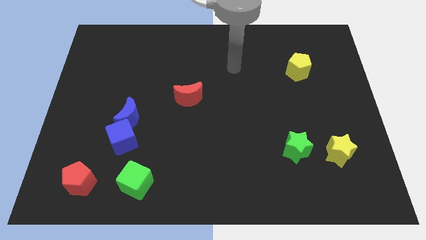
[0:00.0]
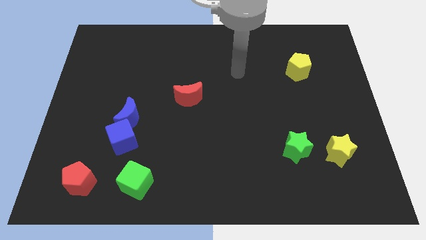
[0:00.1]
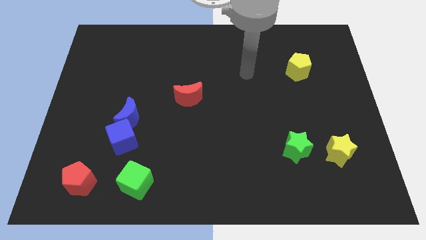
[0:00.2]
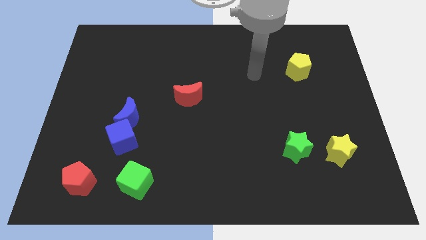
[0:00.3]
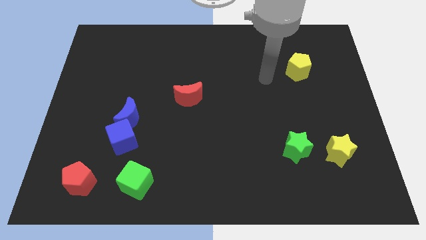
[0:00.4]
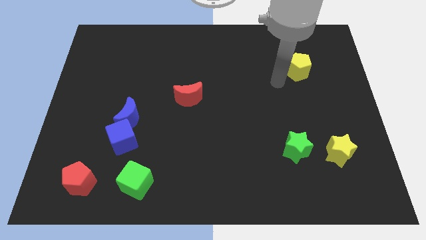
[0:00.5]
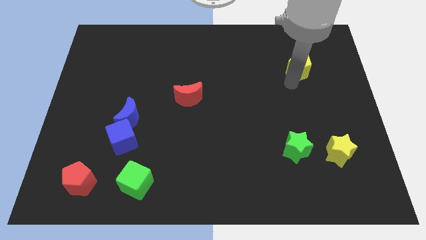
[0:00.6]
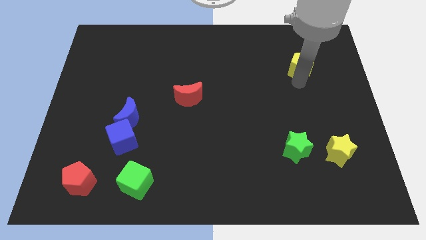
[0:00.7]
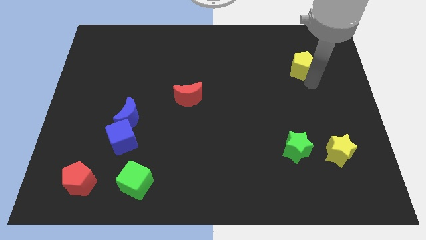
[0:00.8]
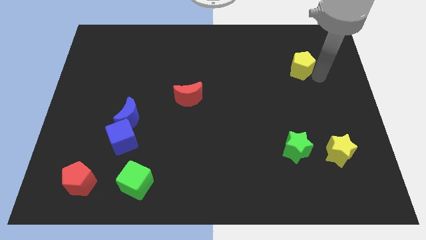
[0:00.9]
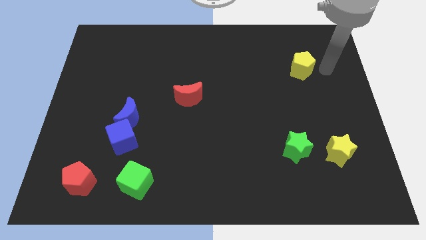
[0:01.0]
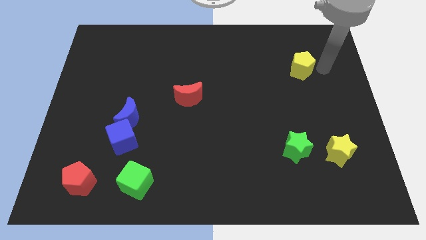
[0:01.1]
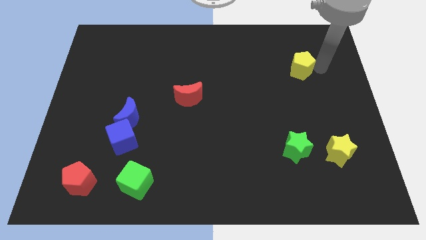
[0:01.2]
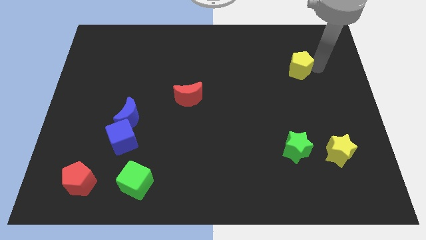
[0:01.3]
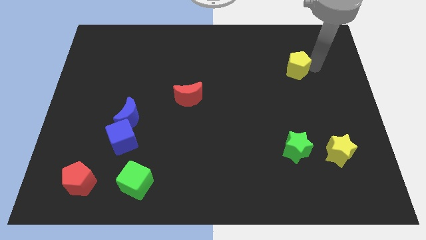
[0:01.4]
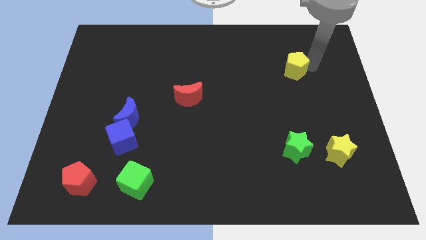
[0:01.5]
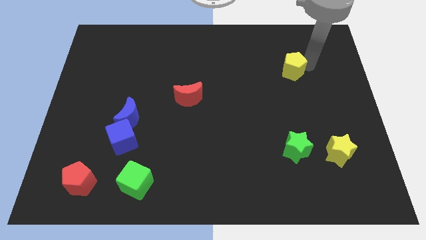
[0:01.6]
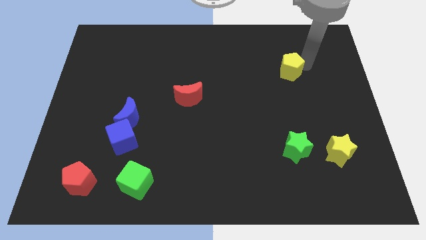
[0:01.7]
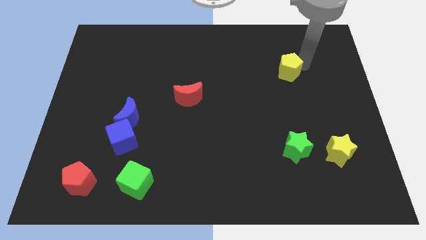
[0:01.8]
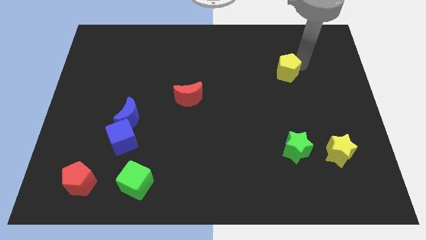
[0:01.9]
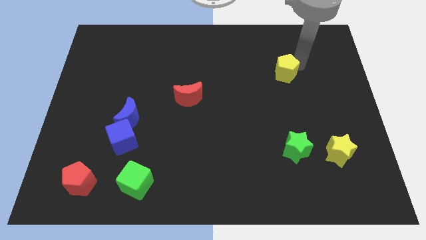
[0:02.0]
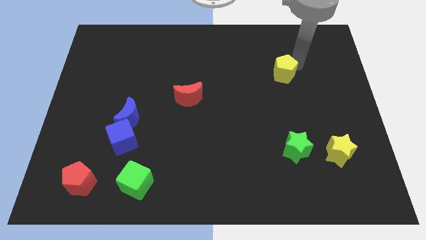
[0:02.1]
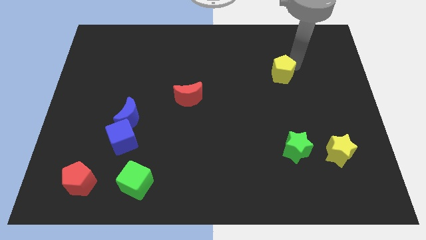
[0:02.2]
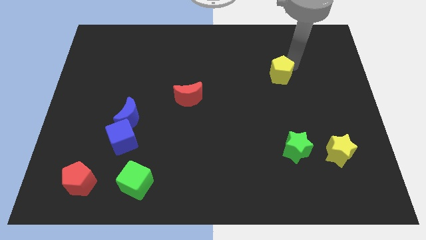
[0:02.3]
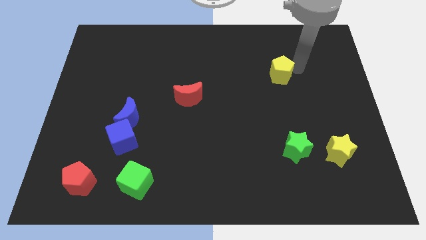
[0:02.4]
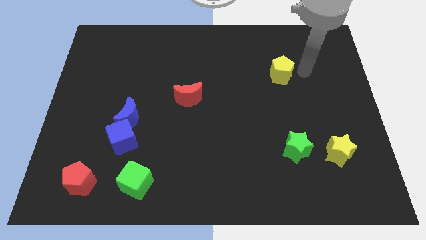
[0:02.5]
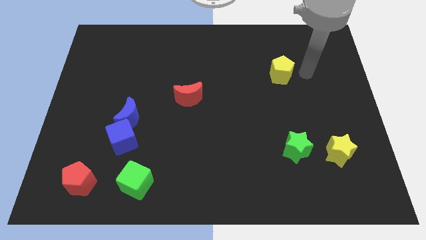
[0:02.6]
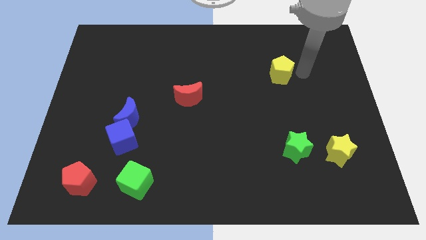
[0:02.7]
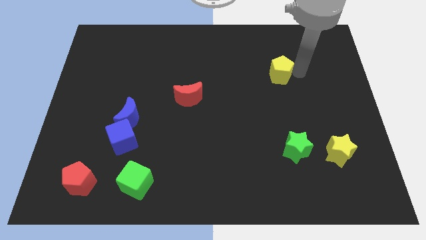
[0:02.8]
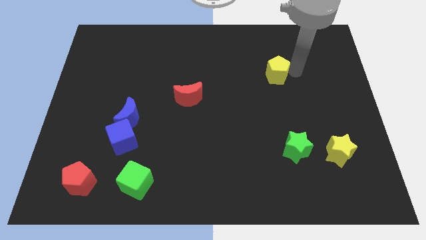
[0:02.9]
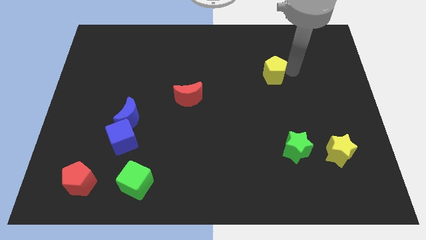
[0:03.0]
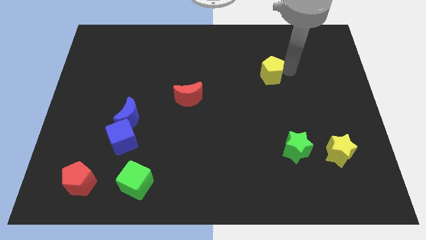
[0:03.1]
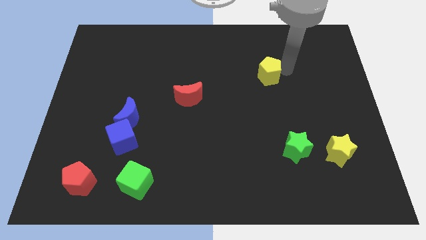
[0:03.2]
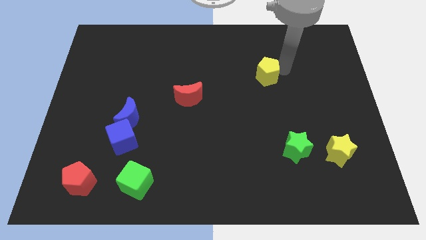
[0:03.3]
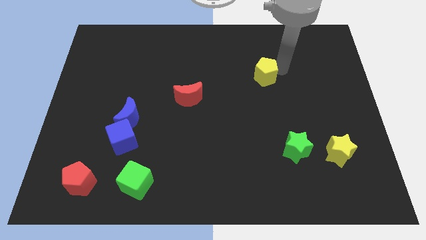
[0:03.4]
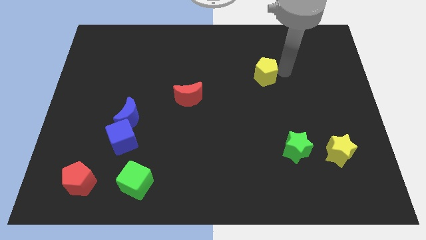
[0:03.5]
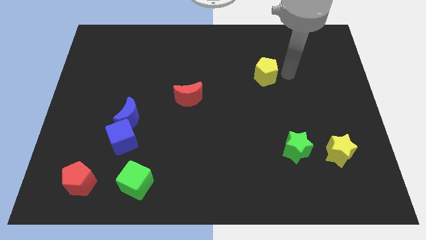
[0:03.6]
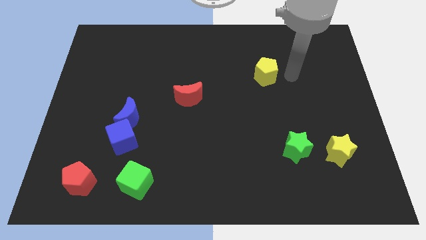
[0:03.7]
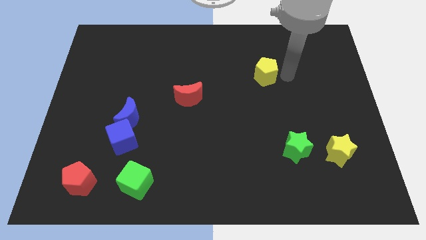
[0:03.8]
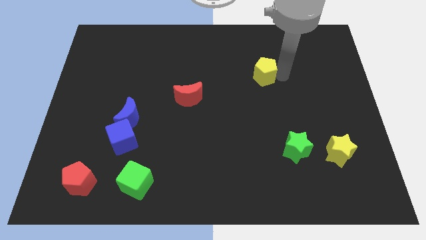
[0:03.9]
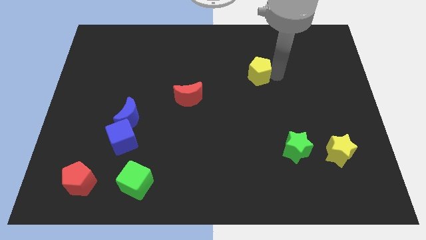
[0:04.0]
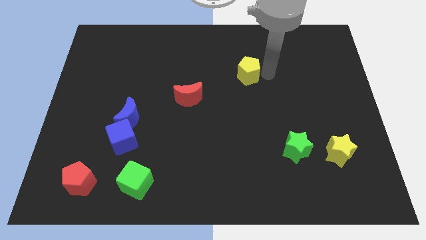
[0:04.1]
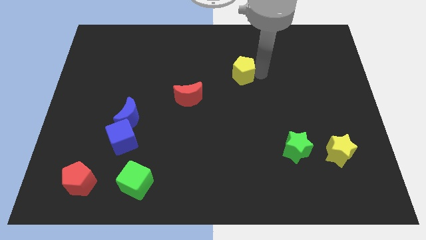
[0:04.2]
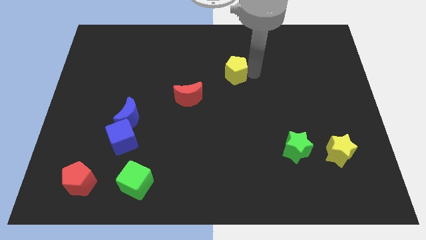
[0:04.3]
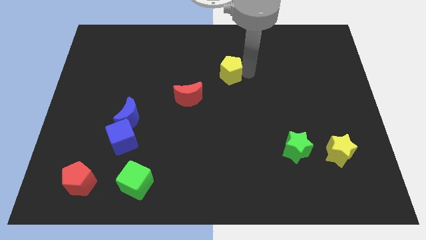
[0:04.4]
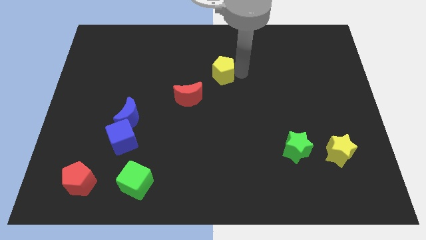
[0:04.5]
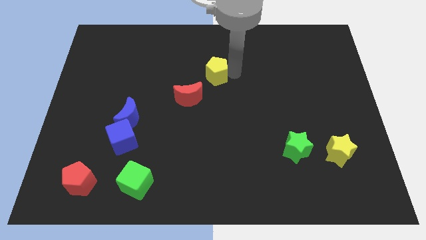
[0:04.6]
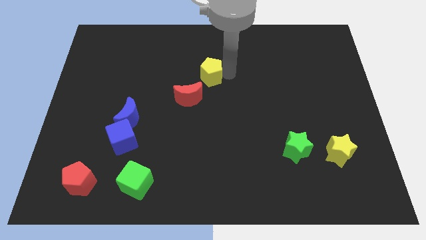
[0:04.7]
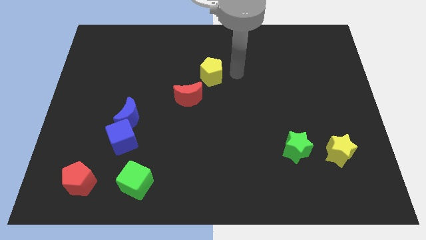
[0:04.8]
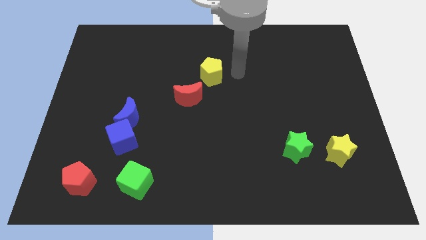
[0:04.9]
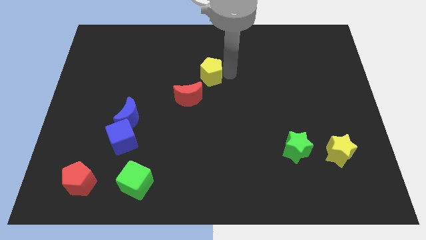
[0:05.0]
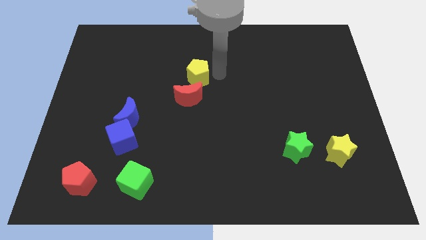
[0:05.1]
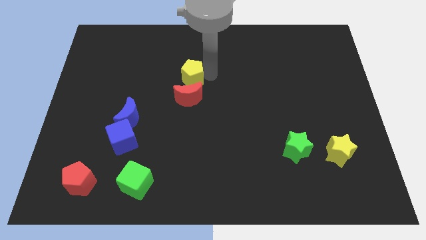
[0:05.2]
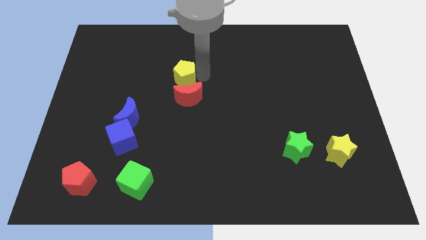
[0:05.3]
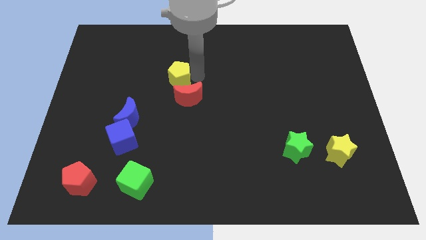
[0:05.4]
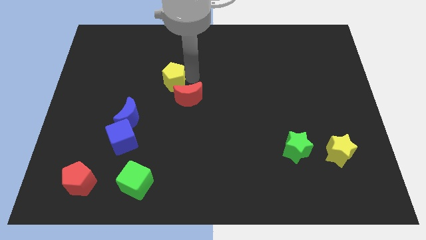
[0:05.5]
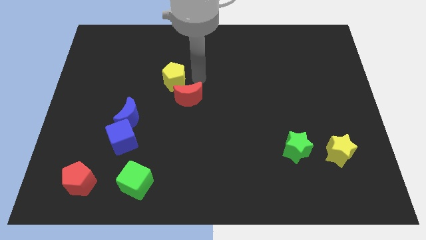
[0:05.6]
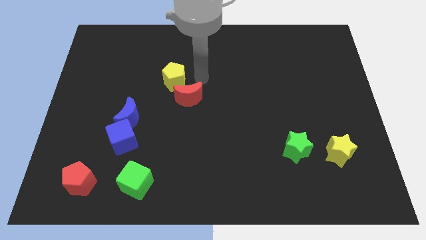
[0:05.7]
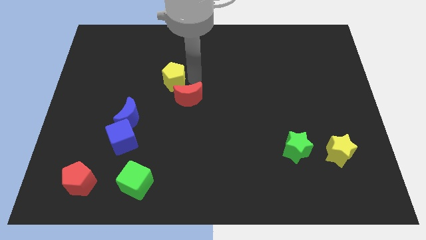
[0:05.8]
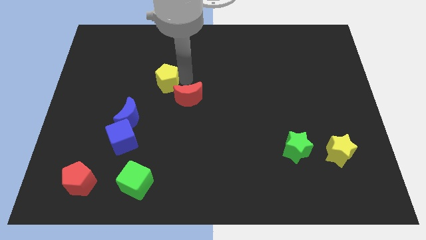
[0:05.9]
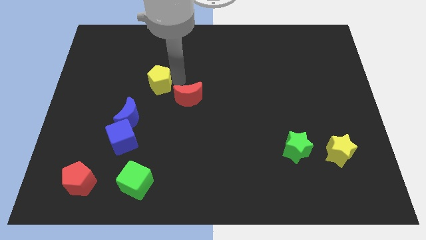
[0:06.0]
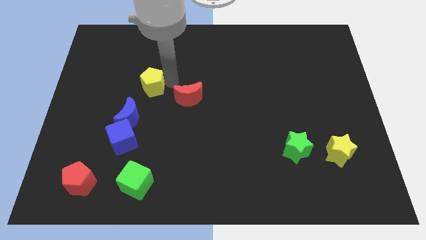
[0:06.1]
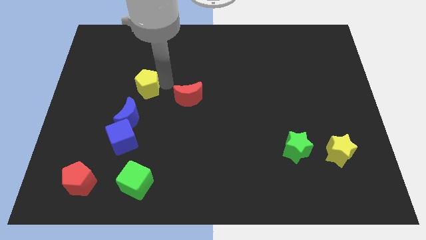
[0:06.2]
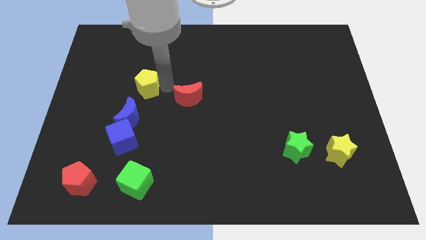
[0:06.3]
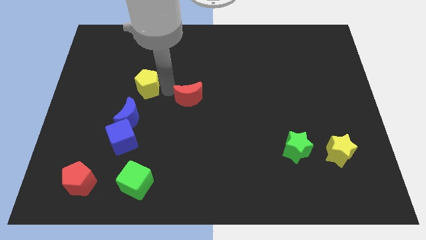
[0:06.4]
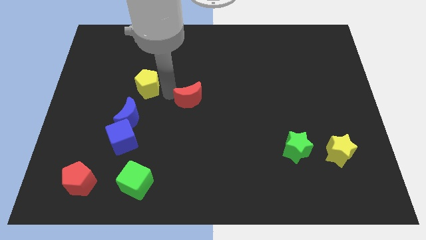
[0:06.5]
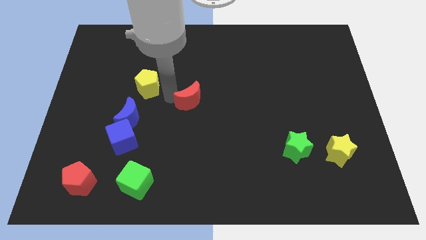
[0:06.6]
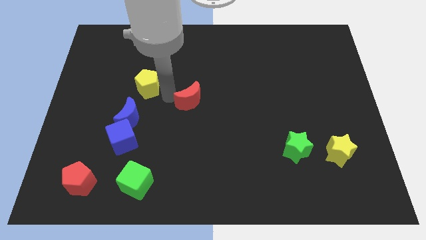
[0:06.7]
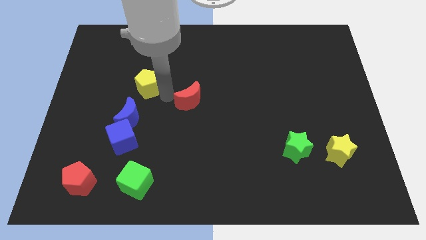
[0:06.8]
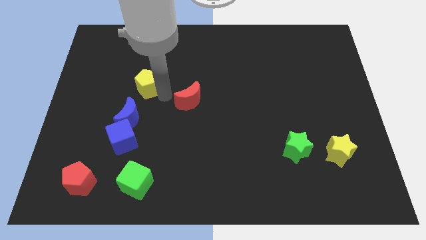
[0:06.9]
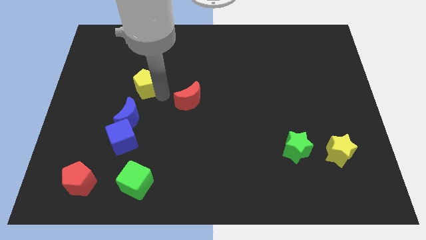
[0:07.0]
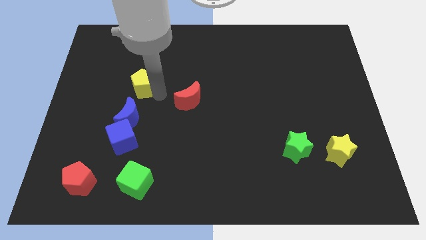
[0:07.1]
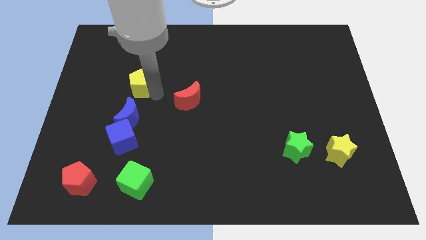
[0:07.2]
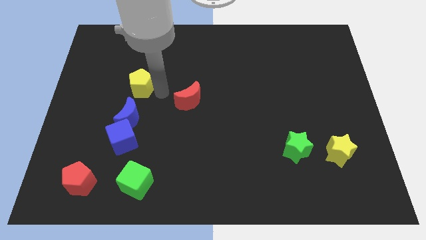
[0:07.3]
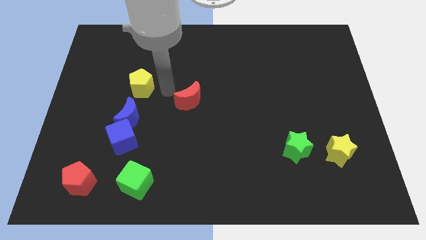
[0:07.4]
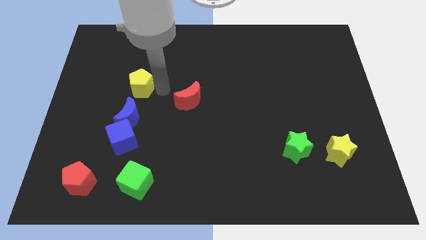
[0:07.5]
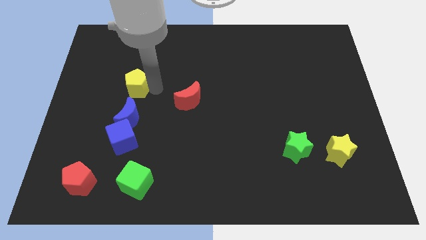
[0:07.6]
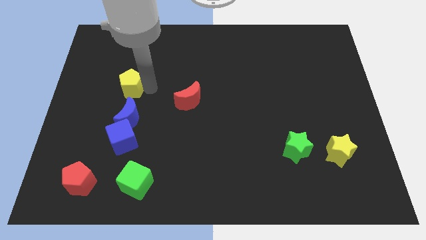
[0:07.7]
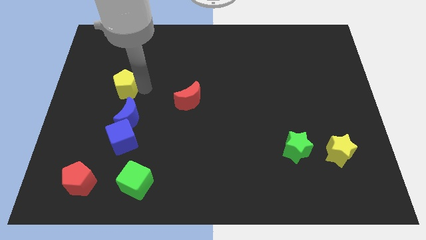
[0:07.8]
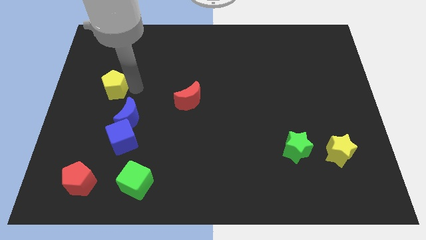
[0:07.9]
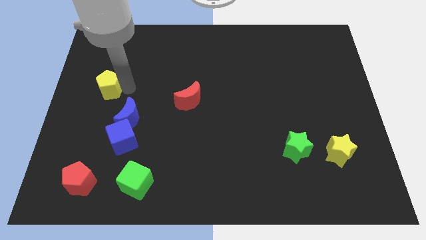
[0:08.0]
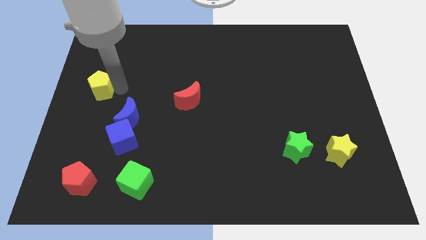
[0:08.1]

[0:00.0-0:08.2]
push the yellow pentagon to the center left
